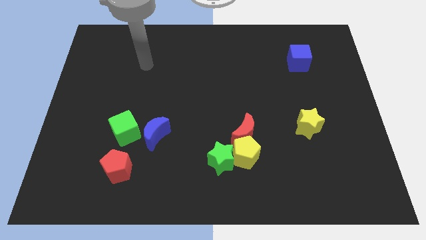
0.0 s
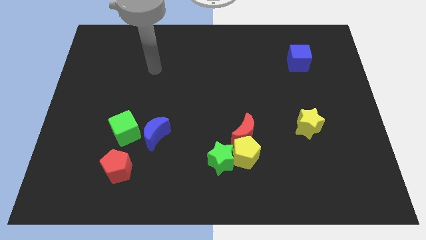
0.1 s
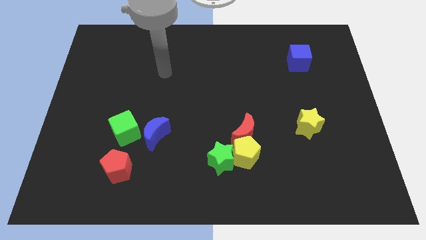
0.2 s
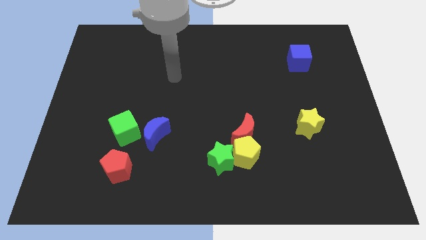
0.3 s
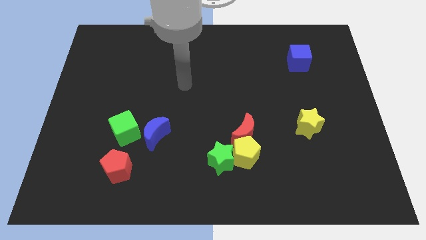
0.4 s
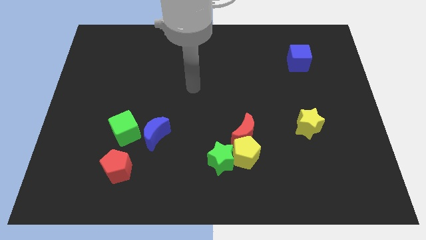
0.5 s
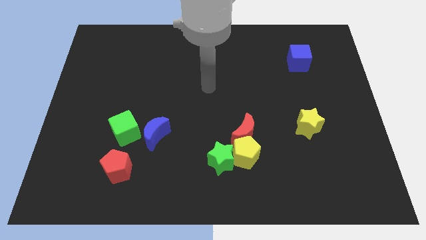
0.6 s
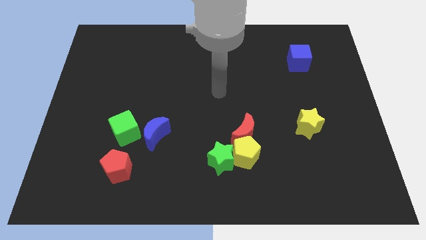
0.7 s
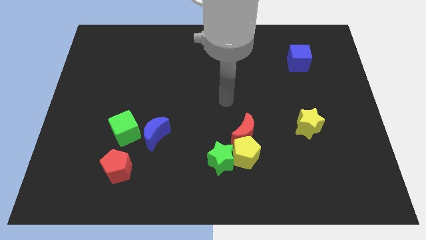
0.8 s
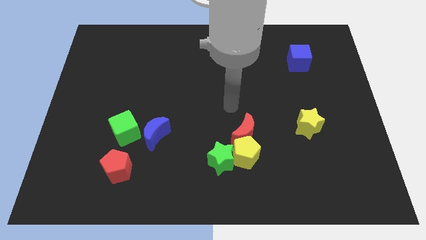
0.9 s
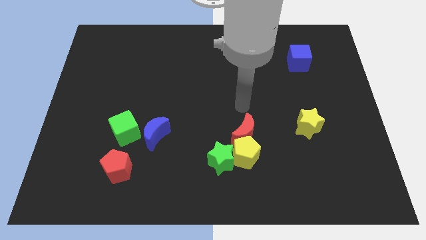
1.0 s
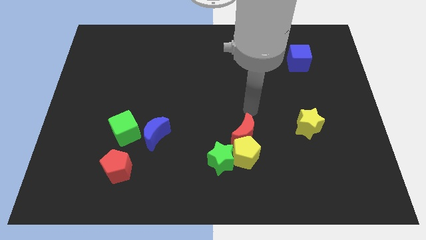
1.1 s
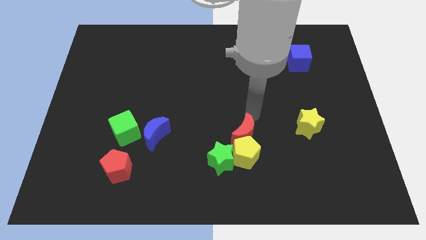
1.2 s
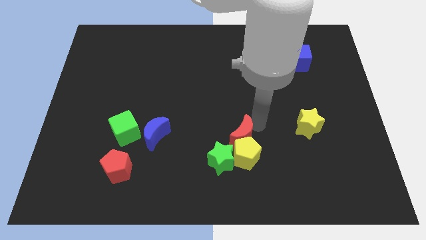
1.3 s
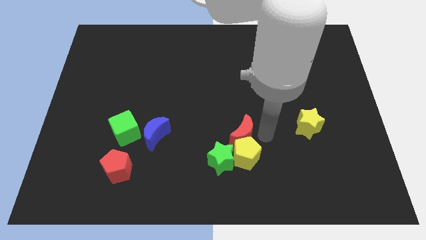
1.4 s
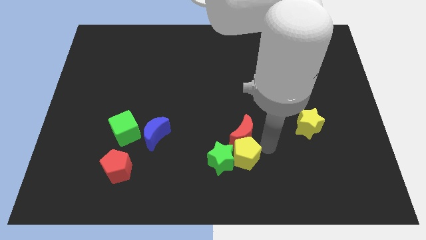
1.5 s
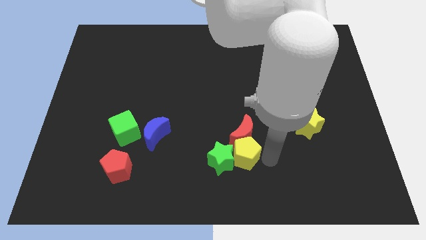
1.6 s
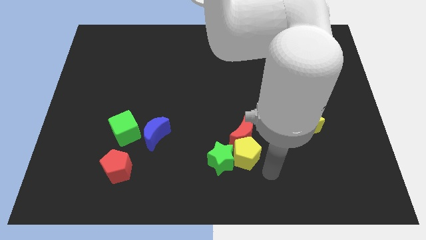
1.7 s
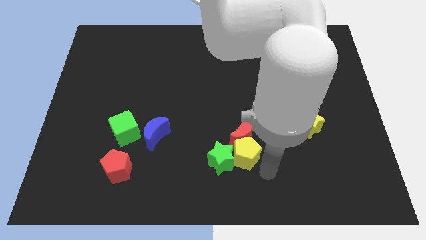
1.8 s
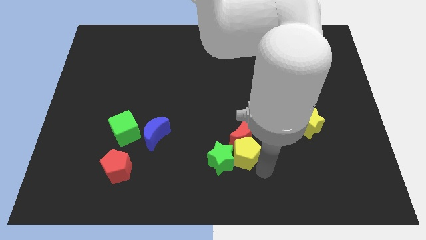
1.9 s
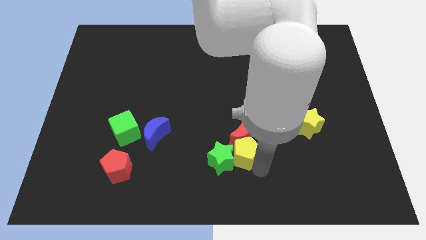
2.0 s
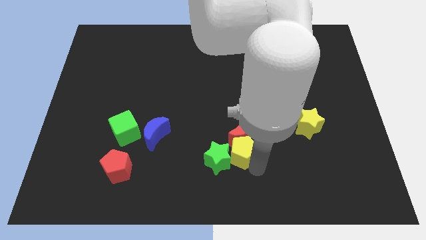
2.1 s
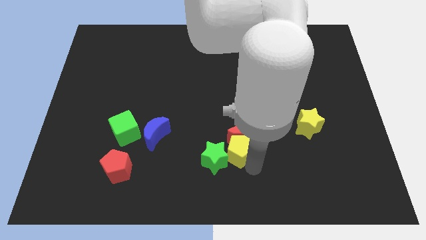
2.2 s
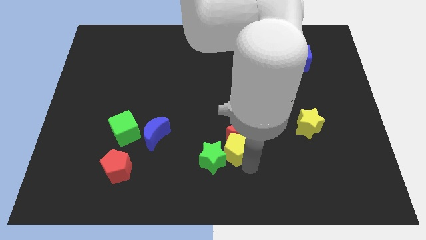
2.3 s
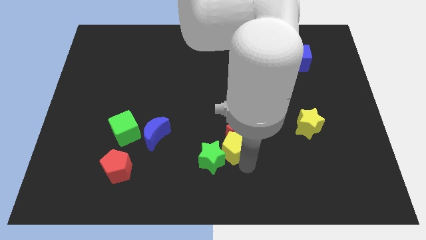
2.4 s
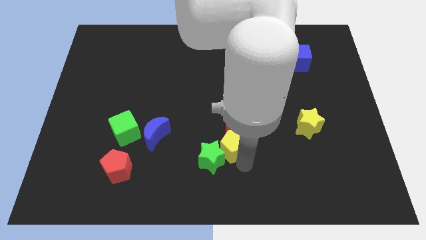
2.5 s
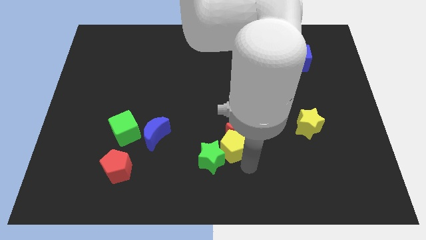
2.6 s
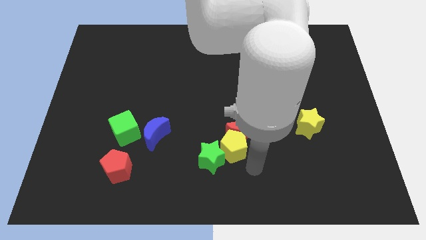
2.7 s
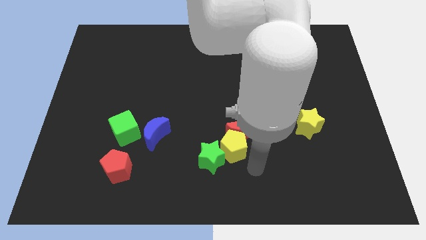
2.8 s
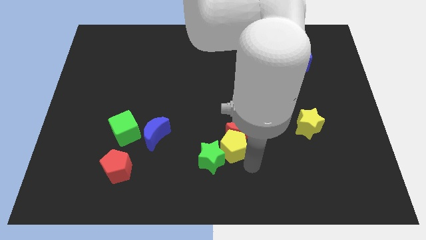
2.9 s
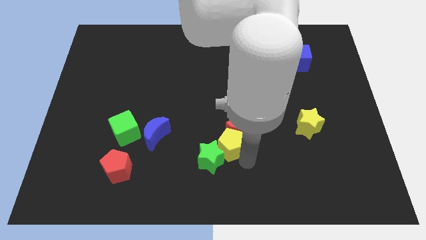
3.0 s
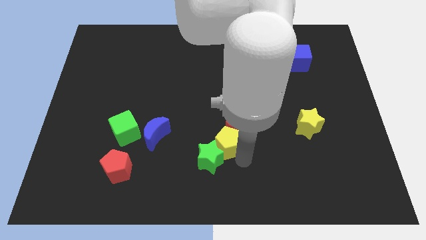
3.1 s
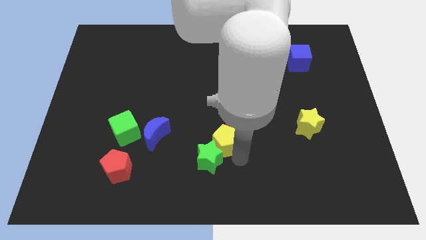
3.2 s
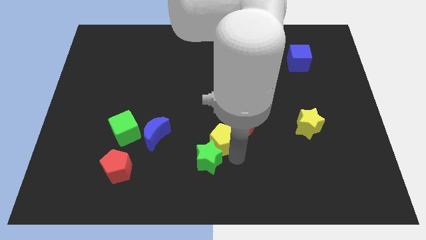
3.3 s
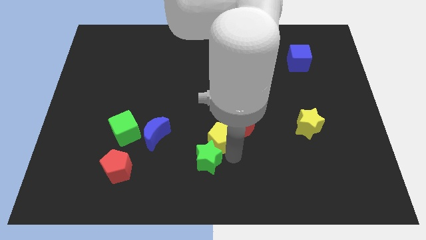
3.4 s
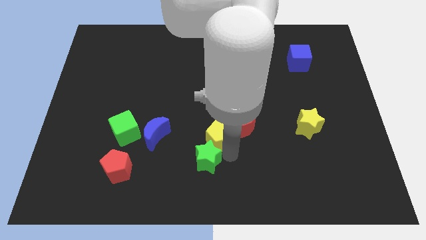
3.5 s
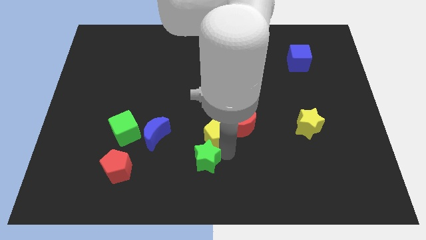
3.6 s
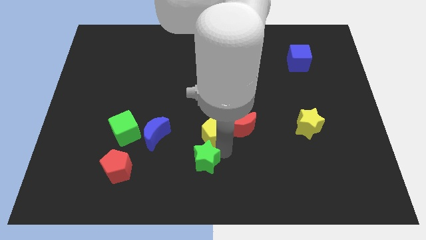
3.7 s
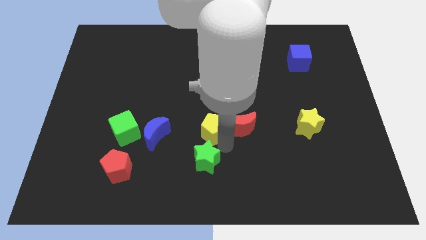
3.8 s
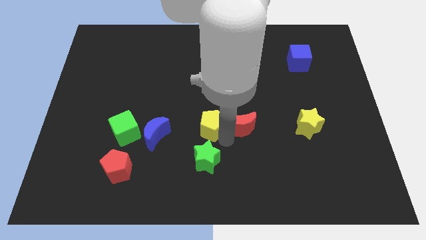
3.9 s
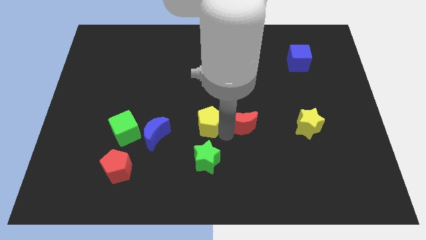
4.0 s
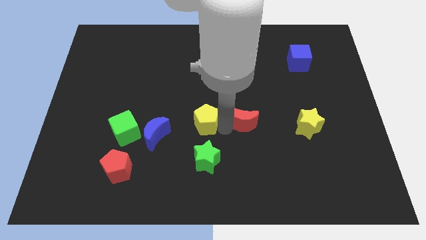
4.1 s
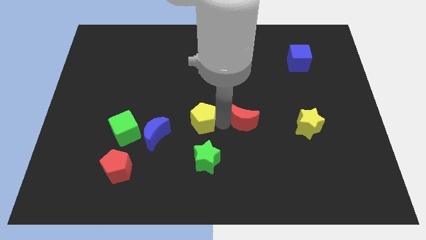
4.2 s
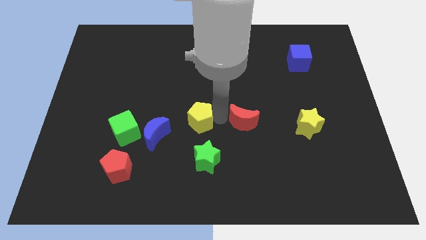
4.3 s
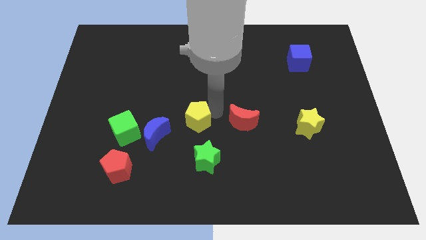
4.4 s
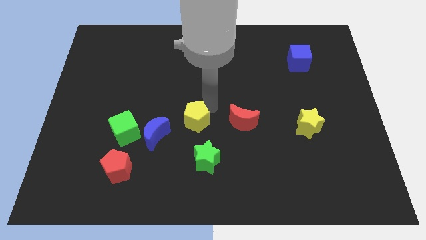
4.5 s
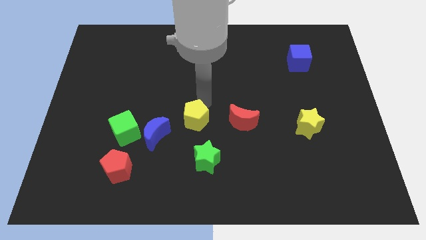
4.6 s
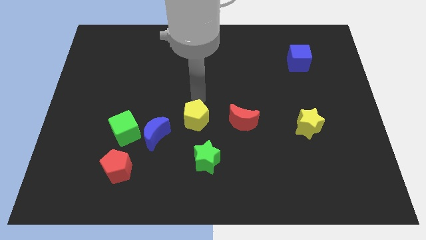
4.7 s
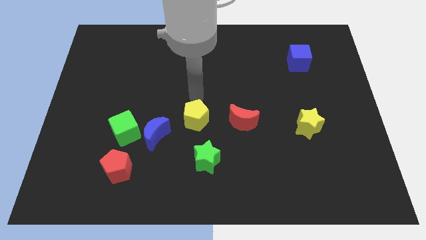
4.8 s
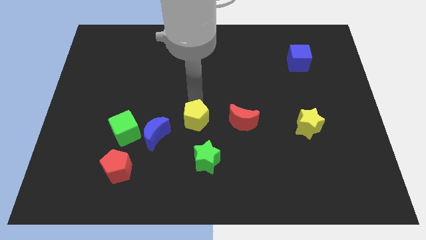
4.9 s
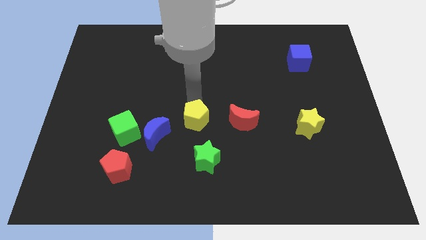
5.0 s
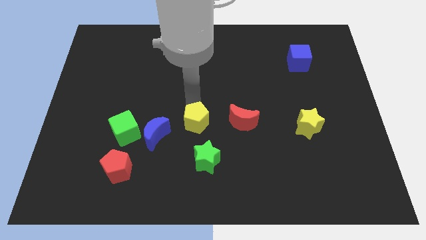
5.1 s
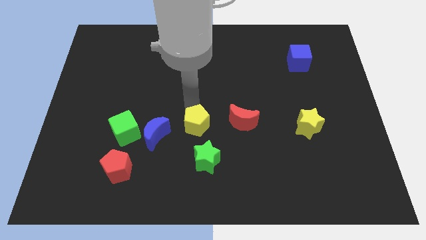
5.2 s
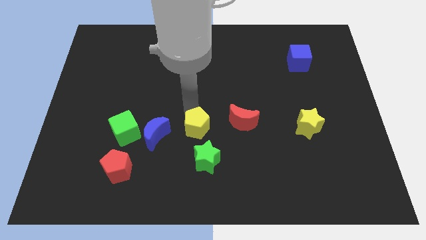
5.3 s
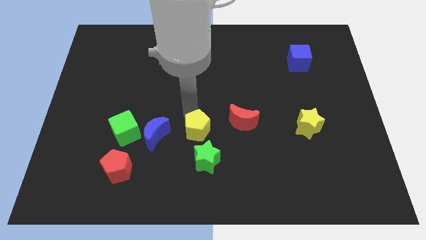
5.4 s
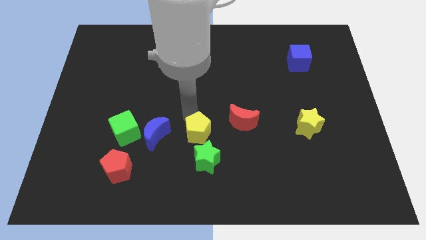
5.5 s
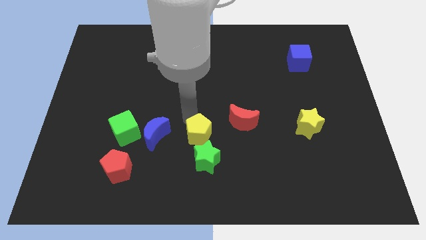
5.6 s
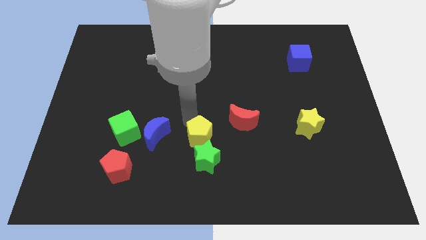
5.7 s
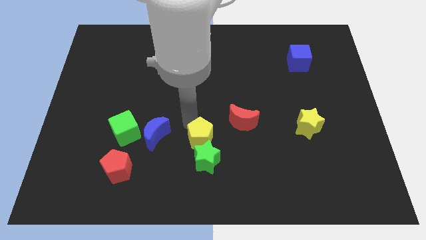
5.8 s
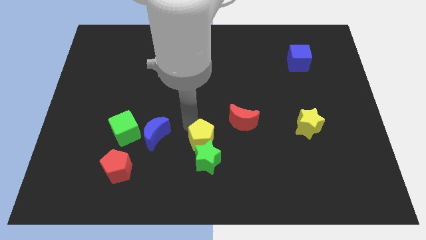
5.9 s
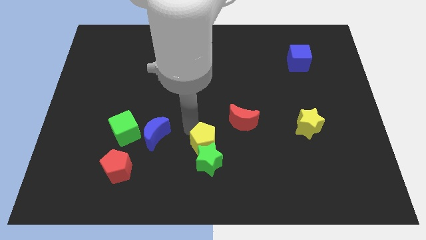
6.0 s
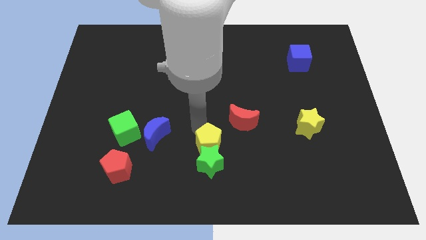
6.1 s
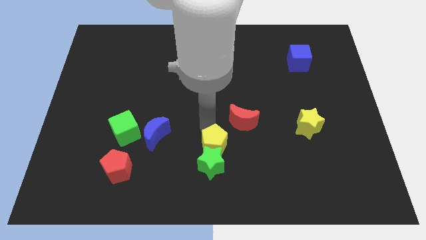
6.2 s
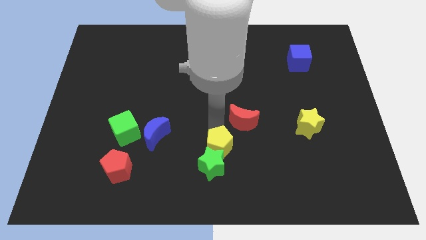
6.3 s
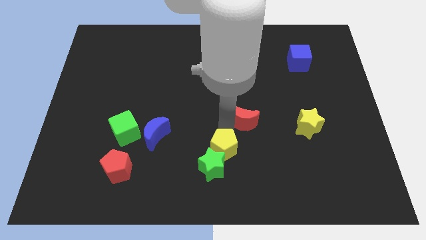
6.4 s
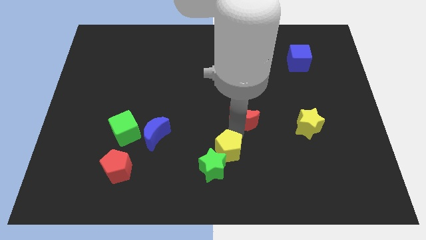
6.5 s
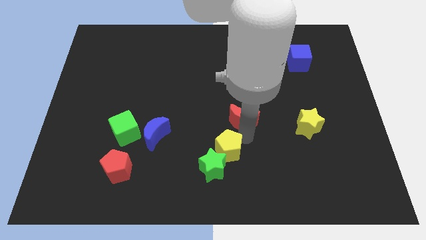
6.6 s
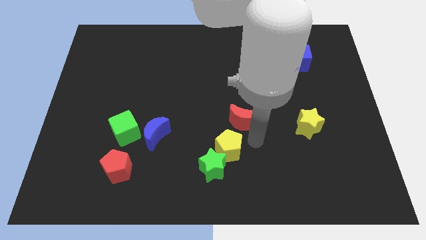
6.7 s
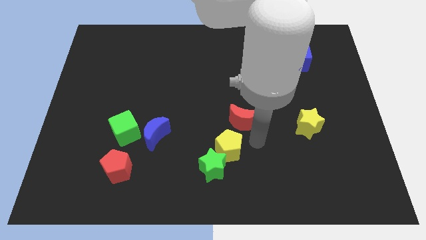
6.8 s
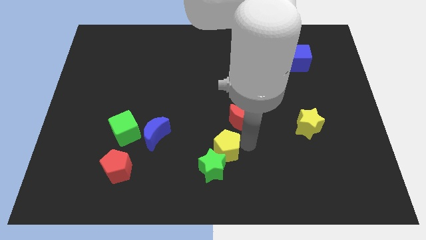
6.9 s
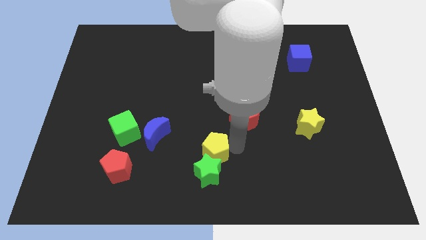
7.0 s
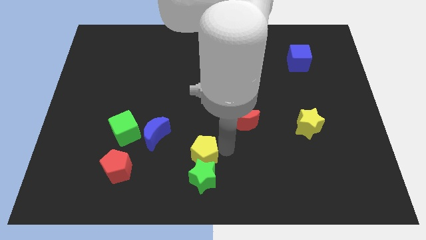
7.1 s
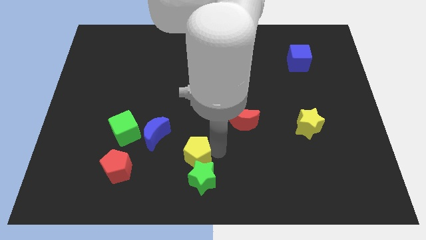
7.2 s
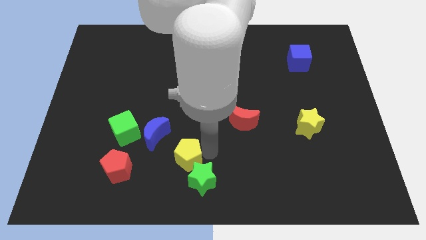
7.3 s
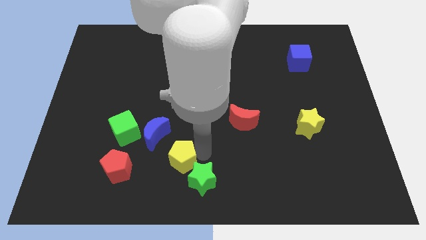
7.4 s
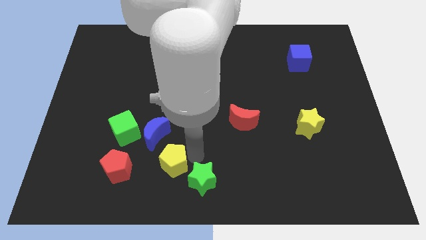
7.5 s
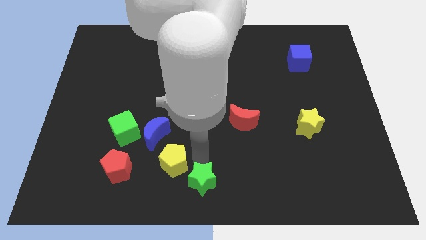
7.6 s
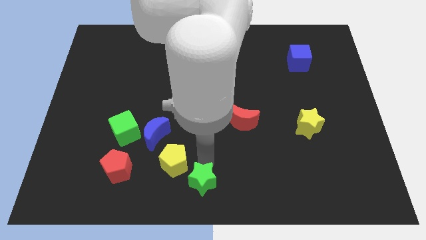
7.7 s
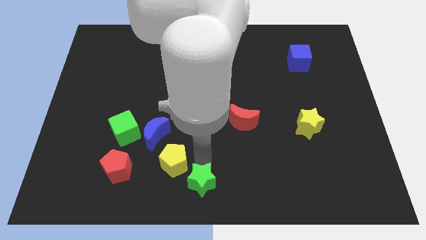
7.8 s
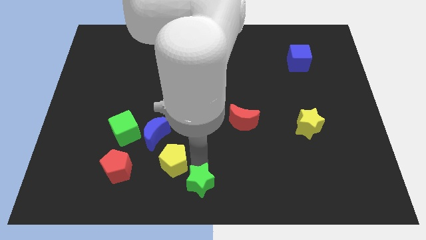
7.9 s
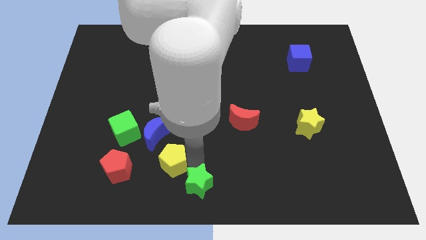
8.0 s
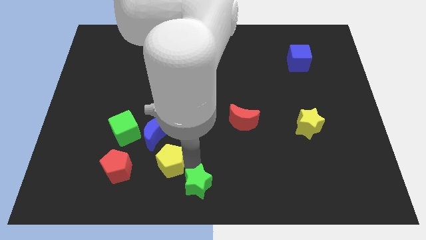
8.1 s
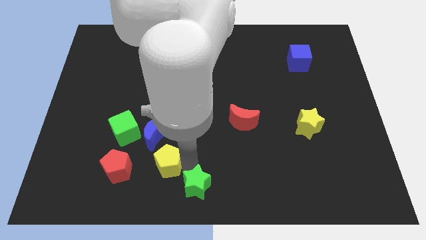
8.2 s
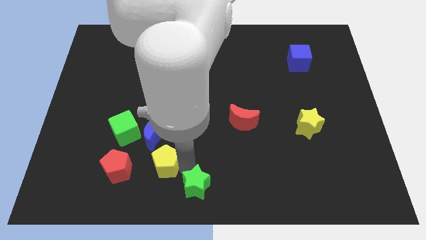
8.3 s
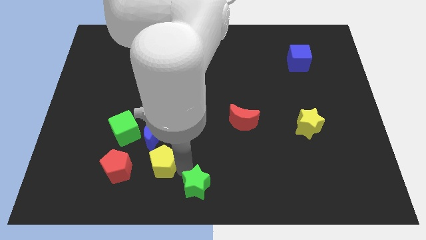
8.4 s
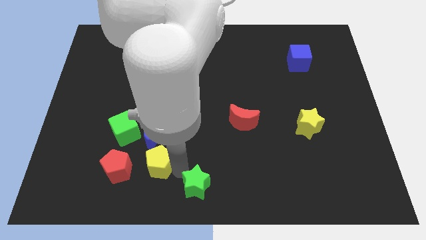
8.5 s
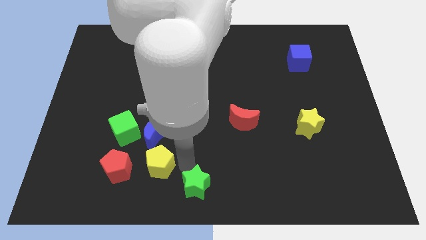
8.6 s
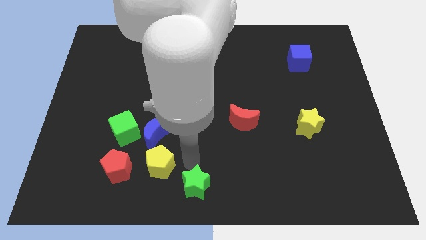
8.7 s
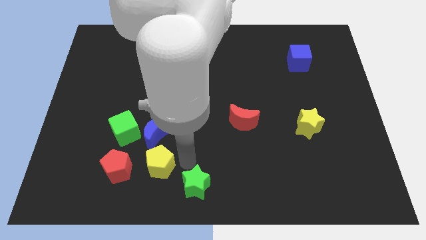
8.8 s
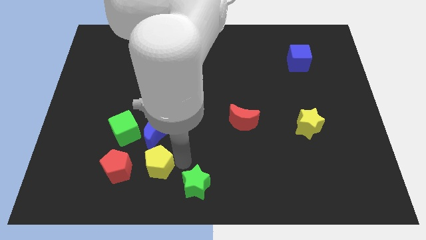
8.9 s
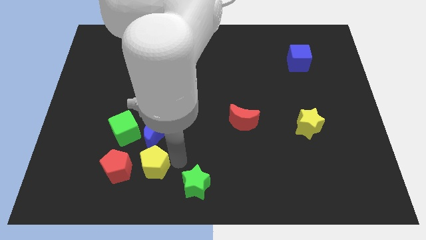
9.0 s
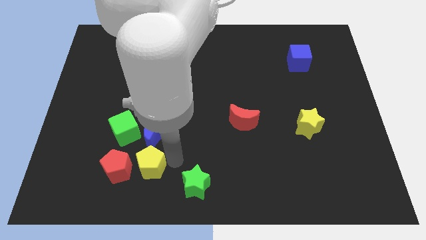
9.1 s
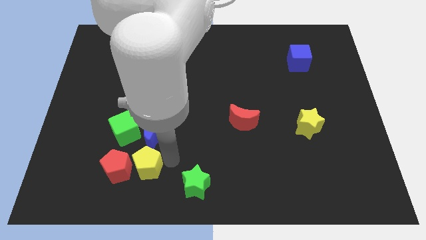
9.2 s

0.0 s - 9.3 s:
move the yellow pentagon next to the red pentagon
